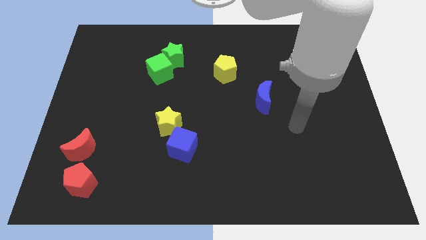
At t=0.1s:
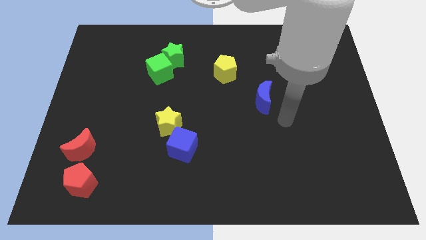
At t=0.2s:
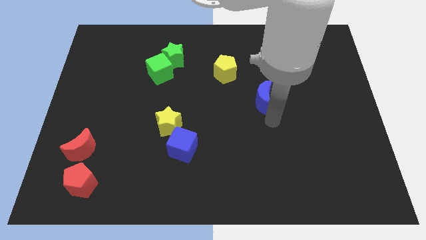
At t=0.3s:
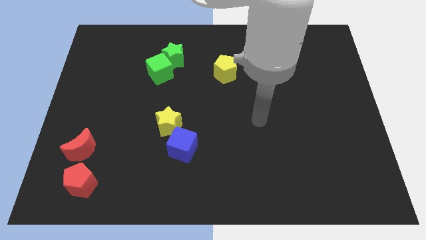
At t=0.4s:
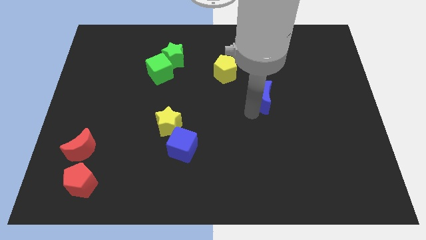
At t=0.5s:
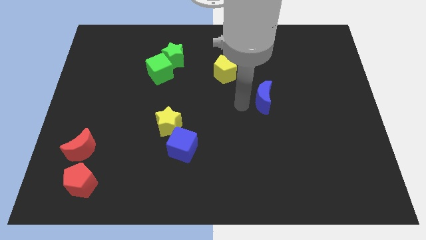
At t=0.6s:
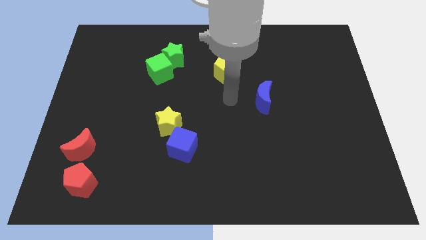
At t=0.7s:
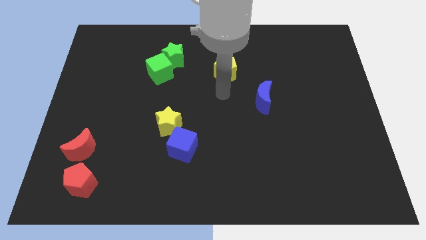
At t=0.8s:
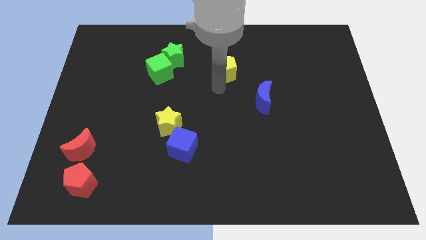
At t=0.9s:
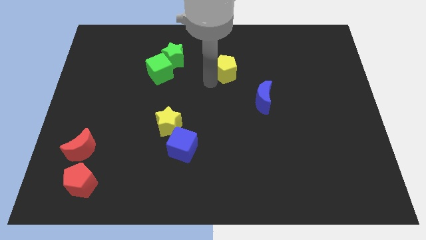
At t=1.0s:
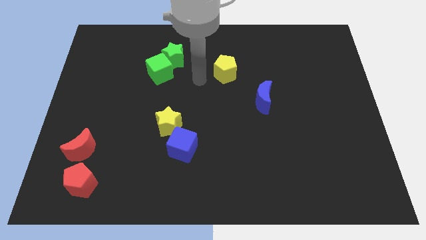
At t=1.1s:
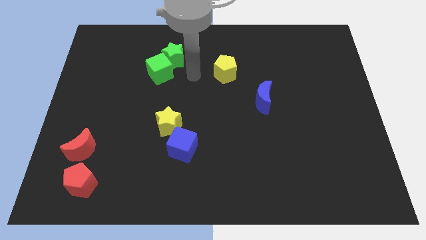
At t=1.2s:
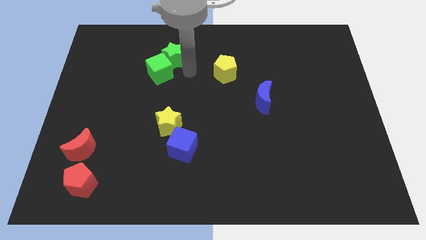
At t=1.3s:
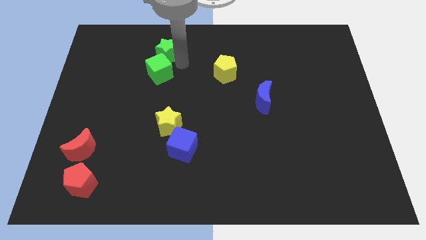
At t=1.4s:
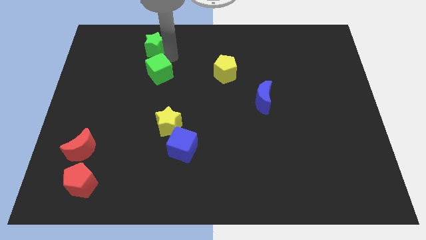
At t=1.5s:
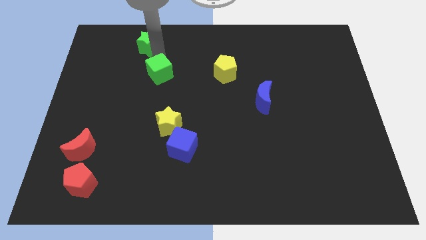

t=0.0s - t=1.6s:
separate the green cube from the green star

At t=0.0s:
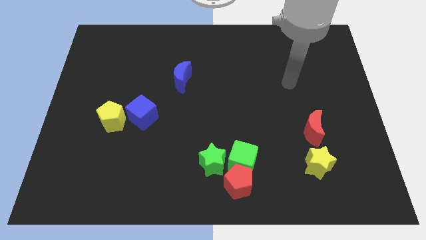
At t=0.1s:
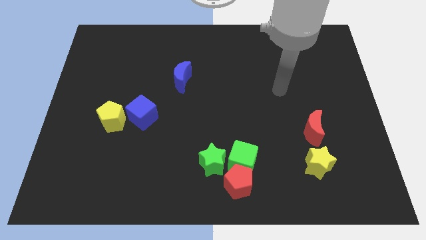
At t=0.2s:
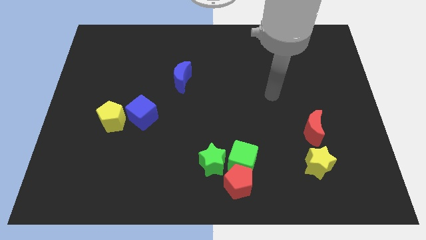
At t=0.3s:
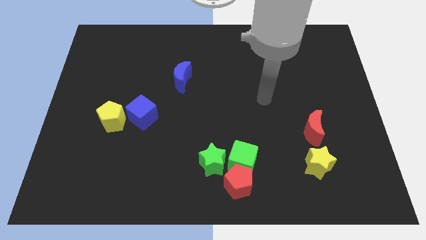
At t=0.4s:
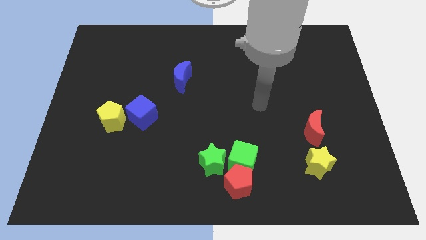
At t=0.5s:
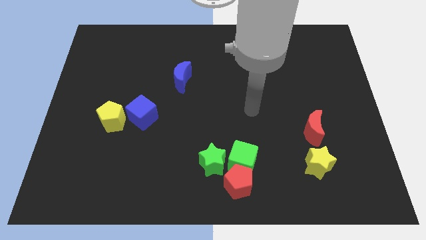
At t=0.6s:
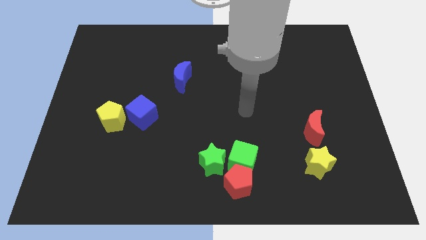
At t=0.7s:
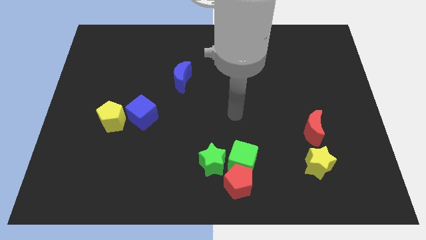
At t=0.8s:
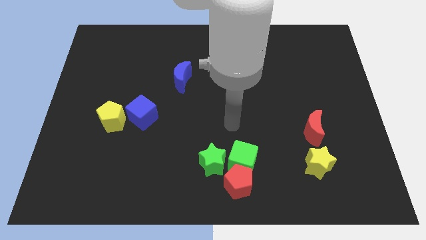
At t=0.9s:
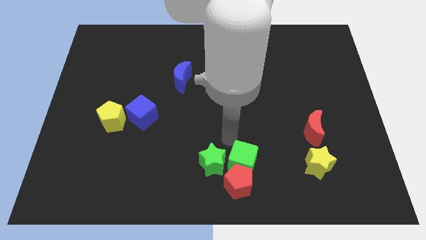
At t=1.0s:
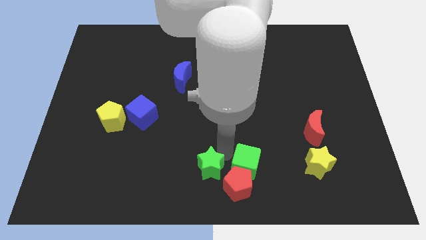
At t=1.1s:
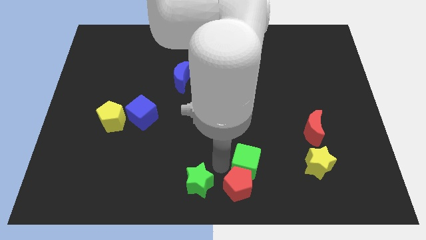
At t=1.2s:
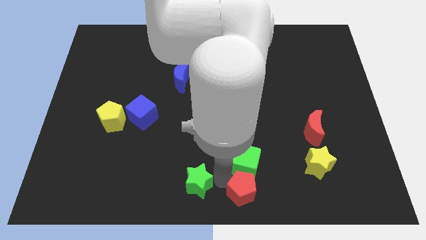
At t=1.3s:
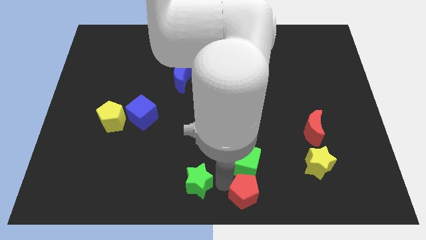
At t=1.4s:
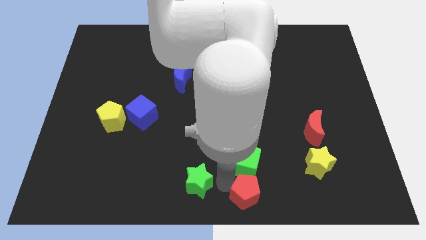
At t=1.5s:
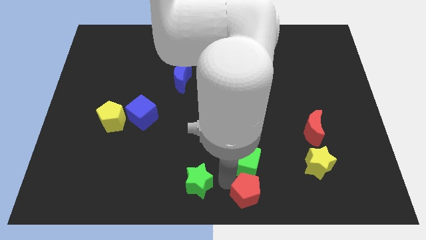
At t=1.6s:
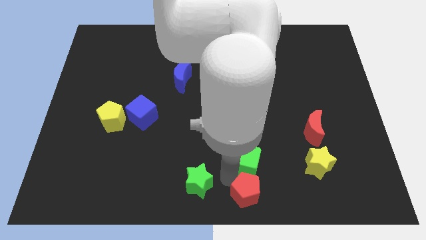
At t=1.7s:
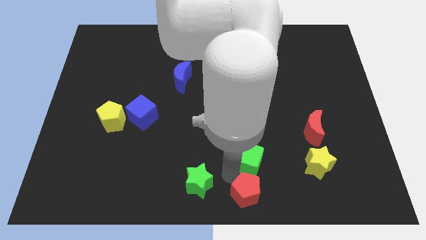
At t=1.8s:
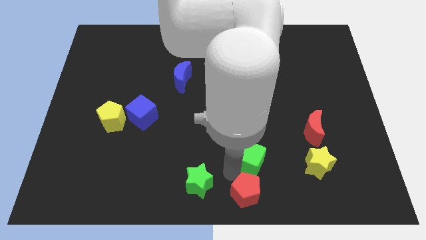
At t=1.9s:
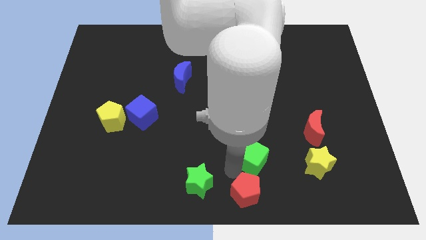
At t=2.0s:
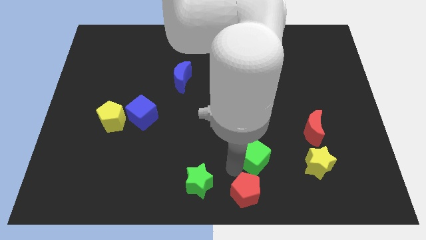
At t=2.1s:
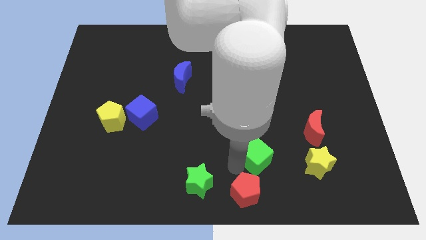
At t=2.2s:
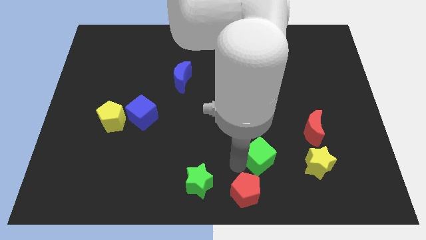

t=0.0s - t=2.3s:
move the green cube away from the red pentagon and green star

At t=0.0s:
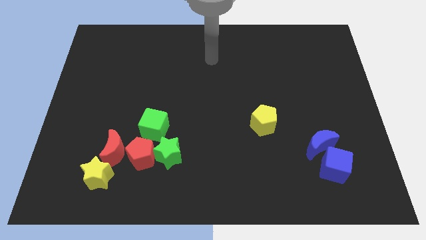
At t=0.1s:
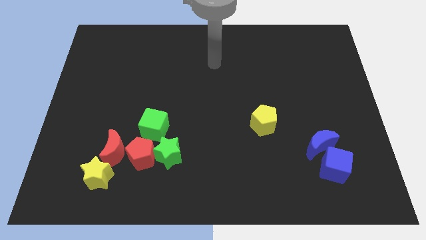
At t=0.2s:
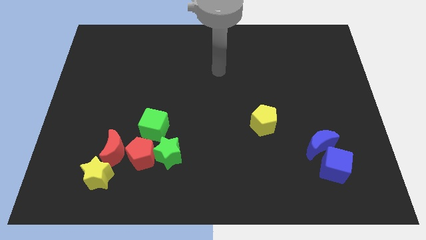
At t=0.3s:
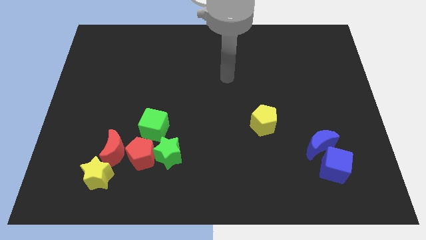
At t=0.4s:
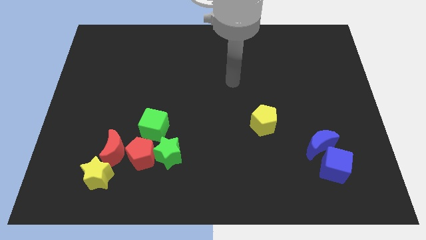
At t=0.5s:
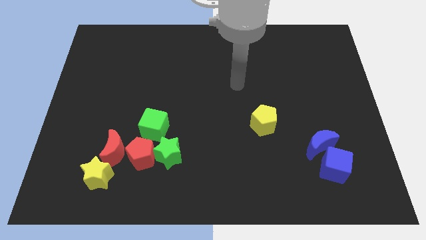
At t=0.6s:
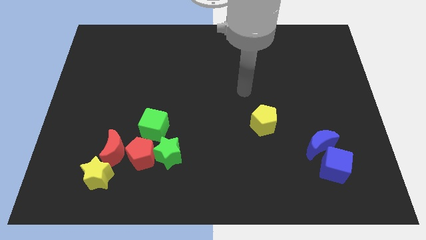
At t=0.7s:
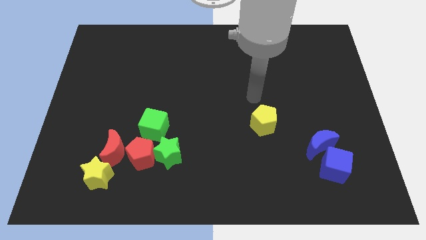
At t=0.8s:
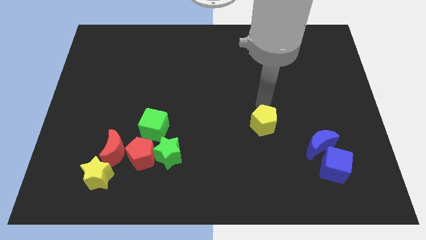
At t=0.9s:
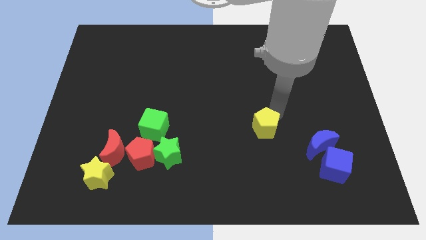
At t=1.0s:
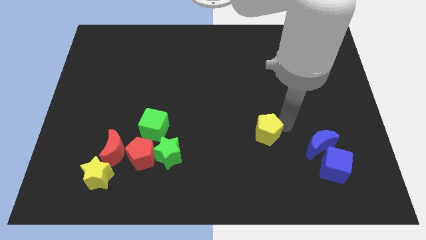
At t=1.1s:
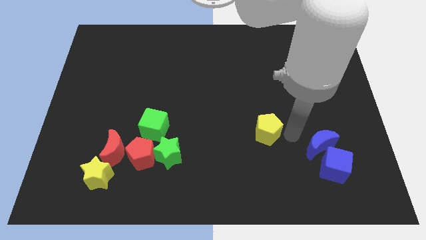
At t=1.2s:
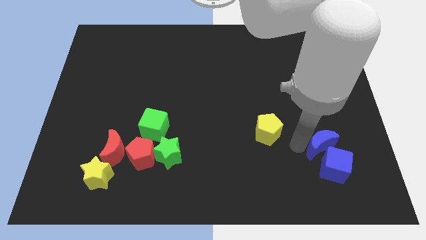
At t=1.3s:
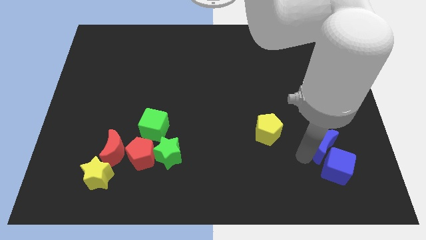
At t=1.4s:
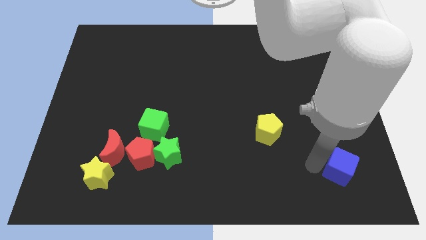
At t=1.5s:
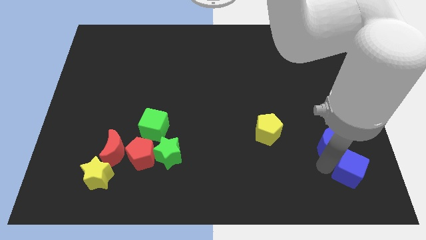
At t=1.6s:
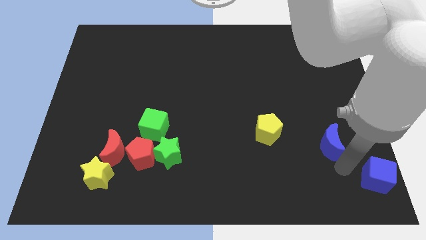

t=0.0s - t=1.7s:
separate the blue moon from the blue cube

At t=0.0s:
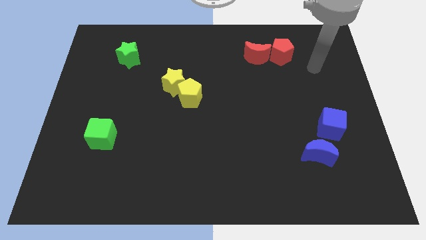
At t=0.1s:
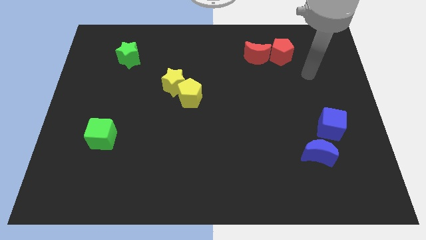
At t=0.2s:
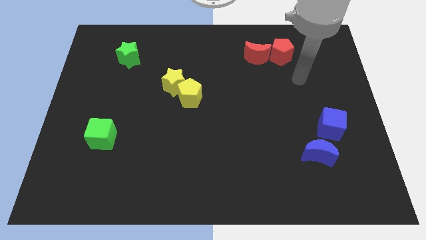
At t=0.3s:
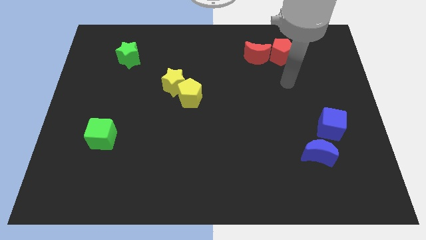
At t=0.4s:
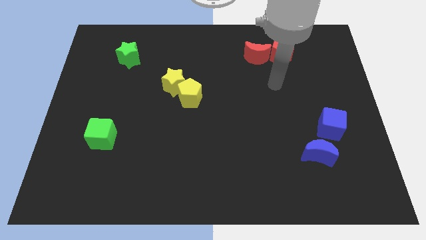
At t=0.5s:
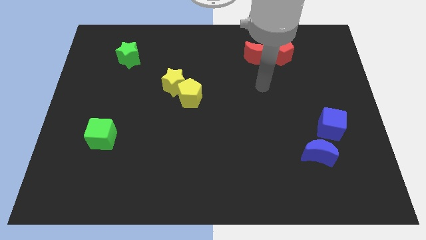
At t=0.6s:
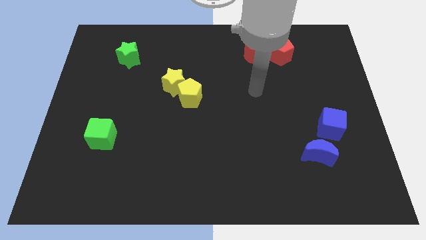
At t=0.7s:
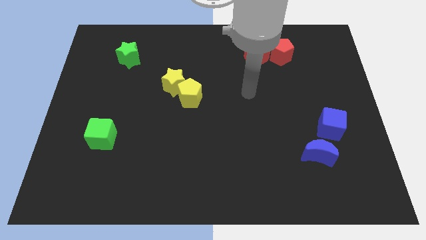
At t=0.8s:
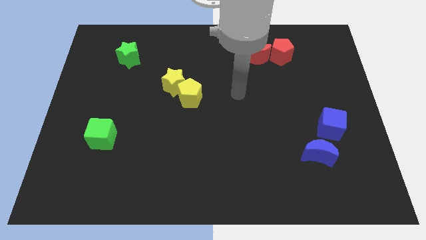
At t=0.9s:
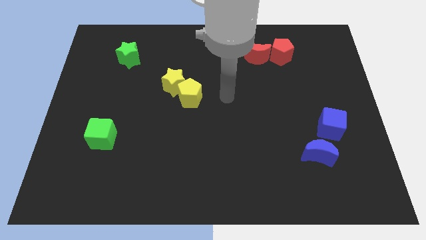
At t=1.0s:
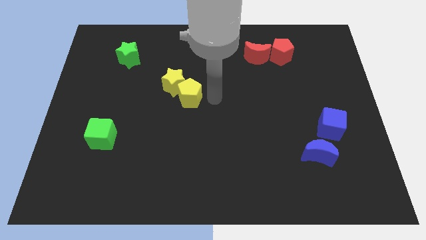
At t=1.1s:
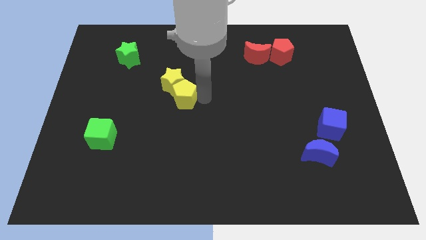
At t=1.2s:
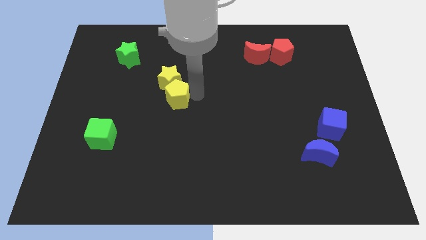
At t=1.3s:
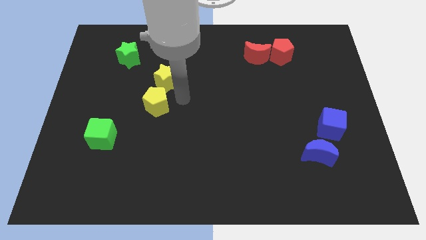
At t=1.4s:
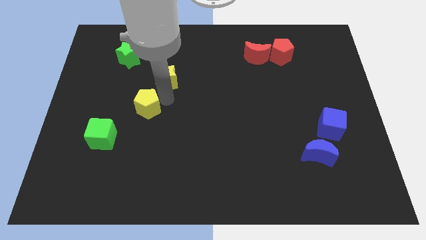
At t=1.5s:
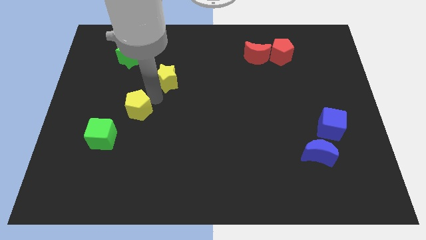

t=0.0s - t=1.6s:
pull the yellow star apart from the yellow pentagon

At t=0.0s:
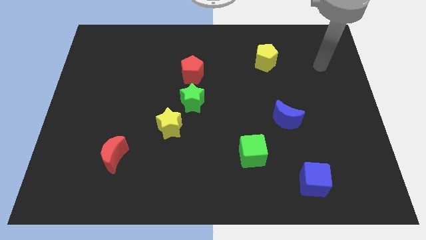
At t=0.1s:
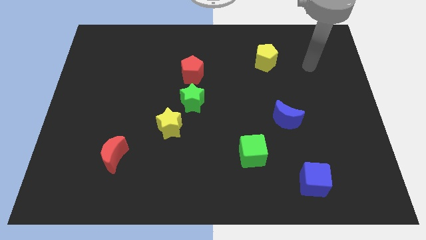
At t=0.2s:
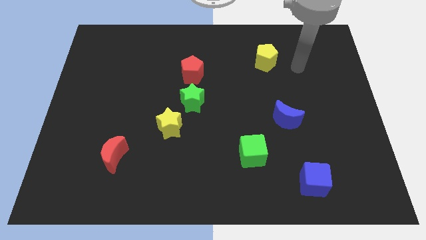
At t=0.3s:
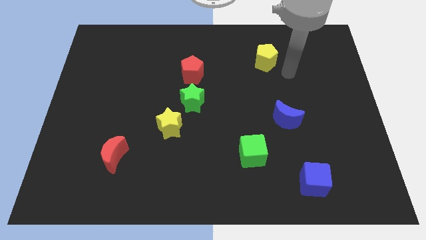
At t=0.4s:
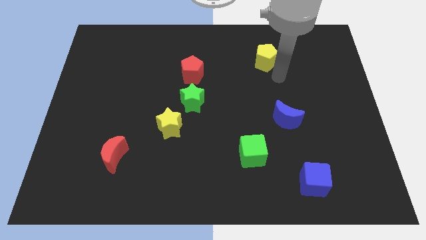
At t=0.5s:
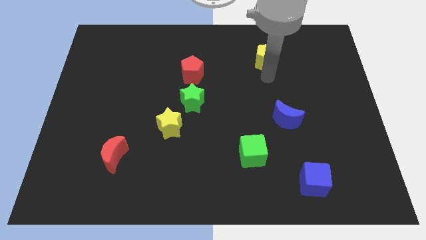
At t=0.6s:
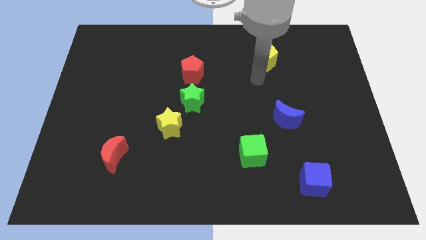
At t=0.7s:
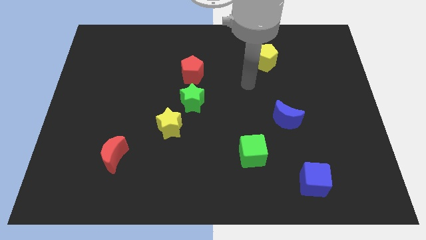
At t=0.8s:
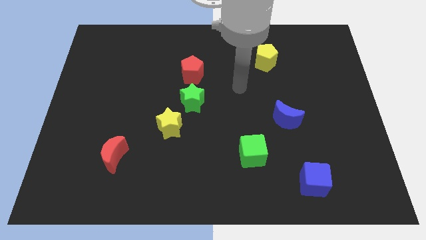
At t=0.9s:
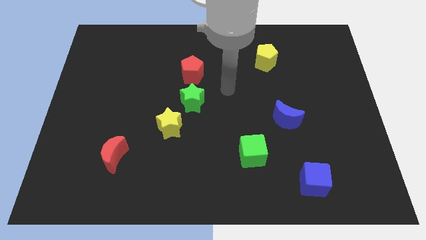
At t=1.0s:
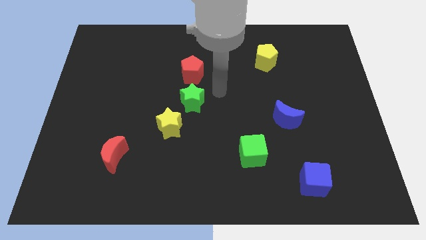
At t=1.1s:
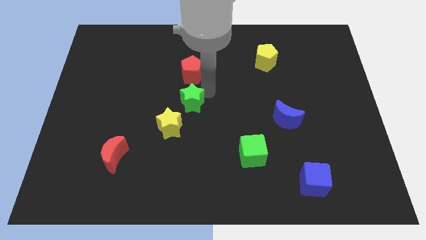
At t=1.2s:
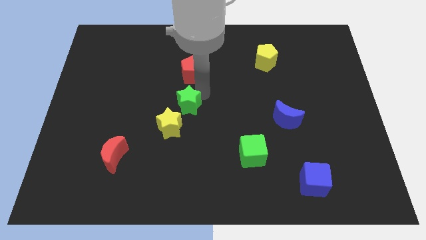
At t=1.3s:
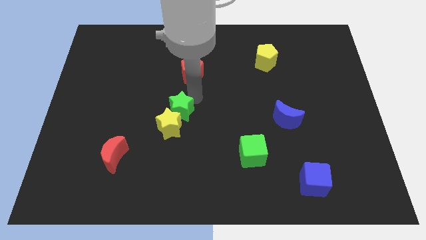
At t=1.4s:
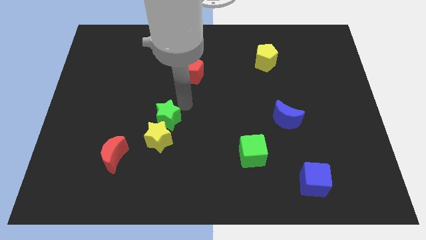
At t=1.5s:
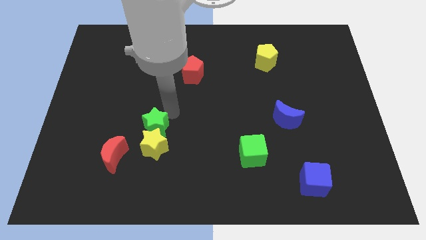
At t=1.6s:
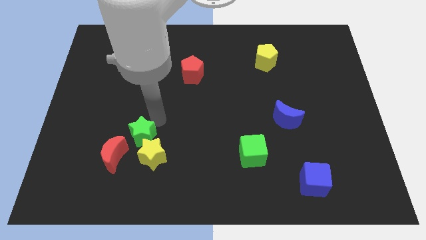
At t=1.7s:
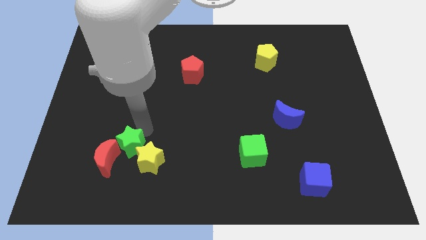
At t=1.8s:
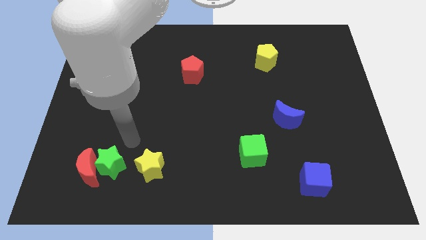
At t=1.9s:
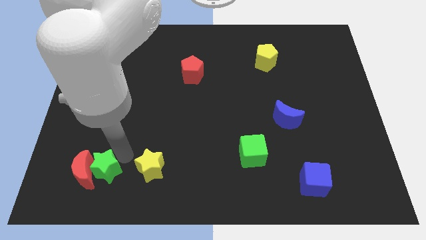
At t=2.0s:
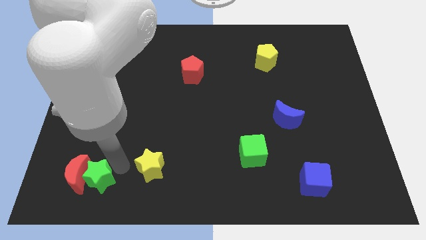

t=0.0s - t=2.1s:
pull the yellow star apart from the green star
